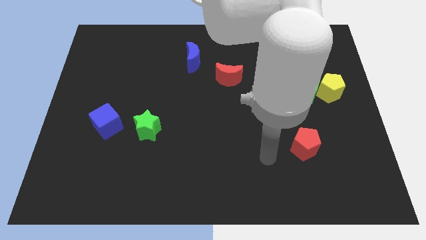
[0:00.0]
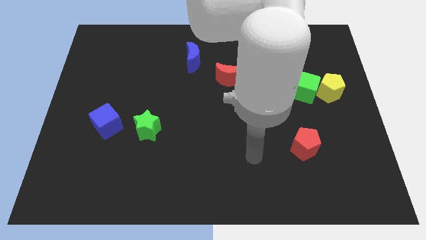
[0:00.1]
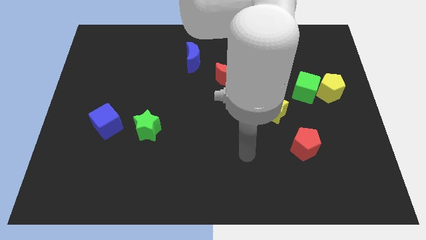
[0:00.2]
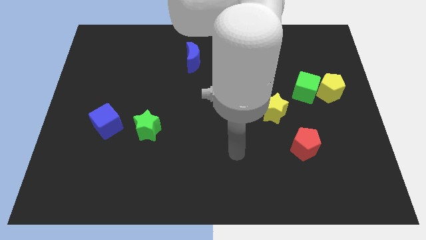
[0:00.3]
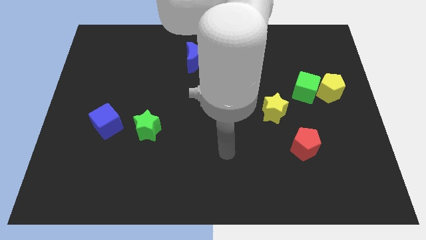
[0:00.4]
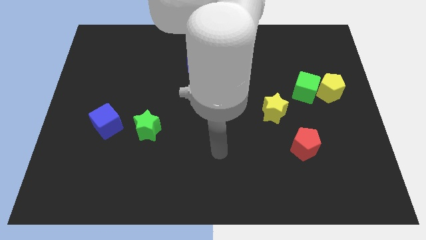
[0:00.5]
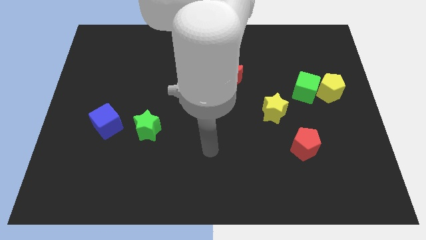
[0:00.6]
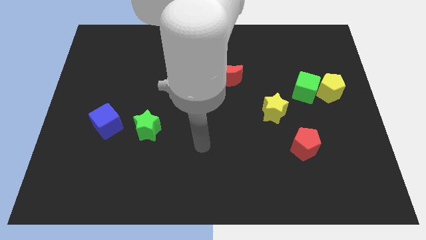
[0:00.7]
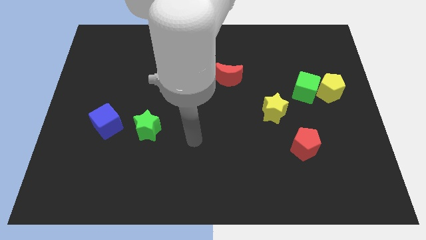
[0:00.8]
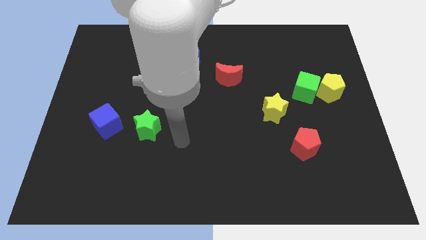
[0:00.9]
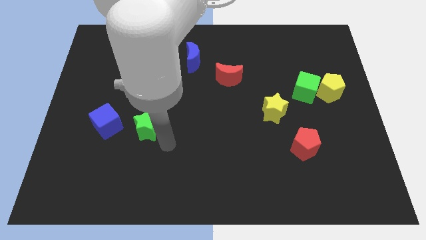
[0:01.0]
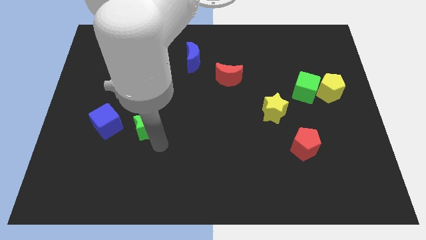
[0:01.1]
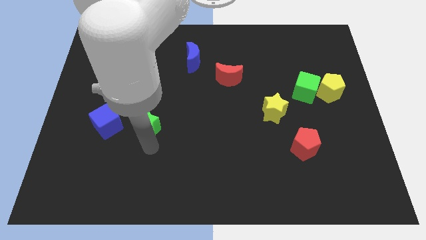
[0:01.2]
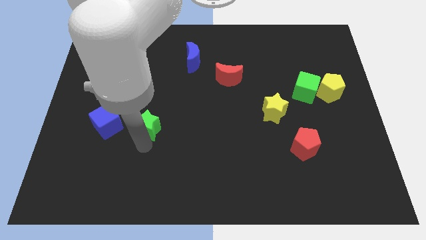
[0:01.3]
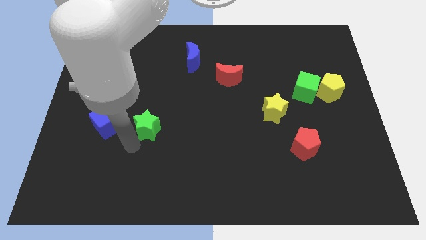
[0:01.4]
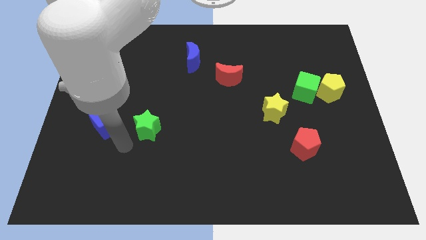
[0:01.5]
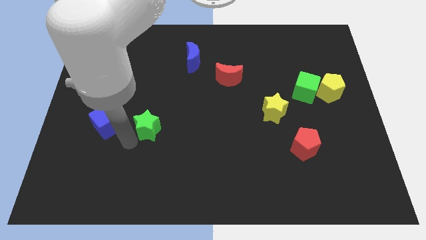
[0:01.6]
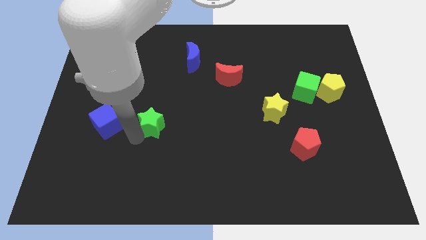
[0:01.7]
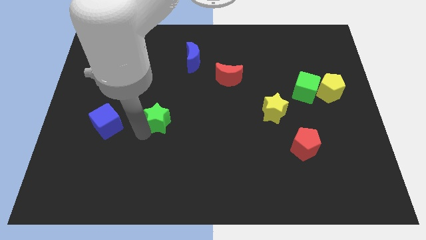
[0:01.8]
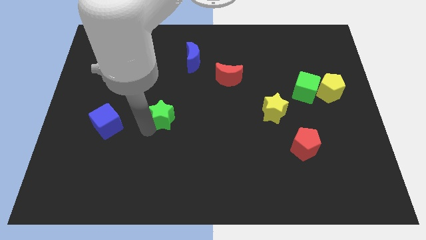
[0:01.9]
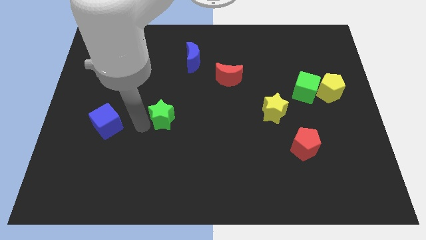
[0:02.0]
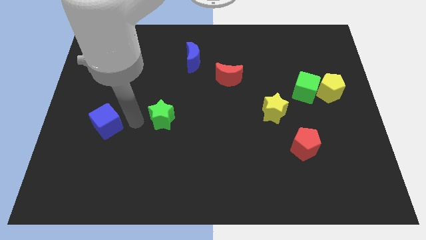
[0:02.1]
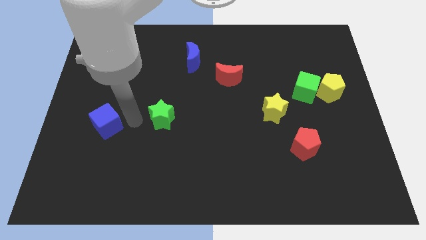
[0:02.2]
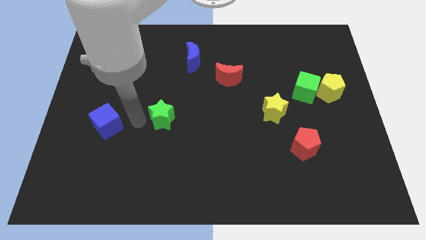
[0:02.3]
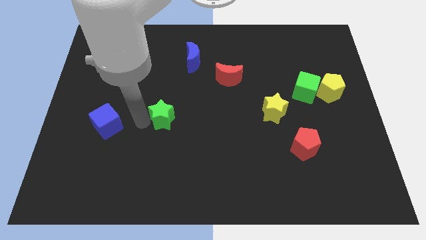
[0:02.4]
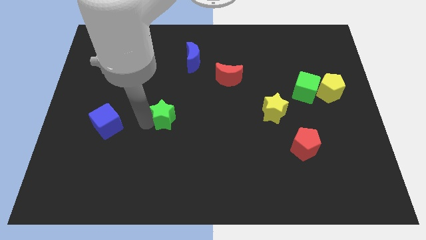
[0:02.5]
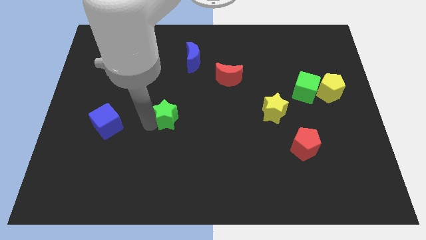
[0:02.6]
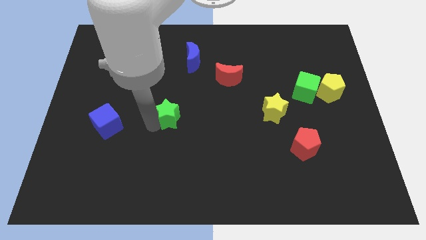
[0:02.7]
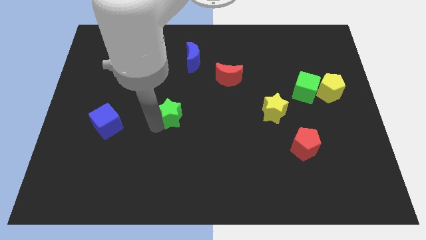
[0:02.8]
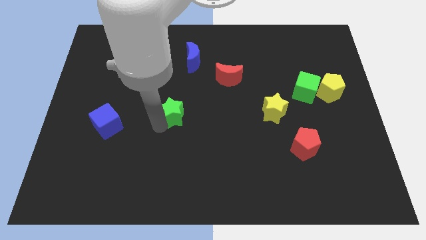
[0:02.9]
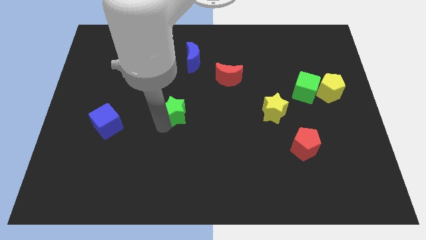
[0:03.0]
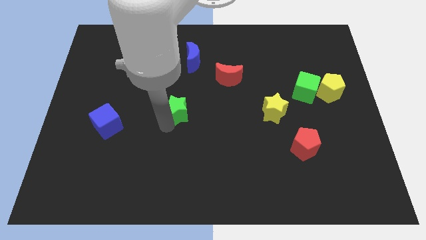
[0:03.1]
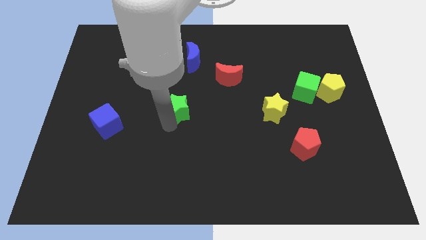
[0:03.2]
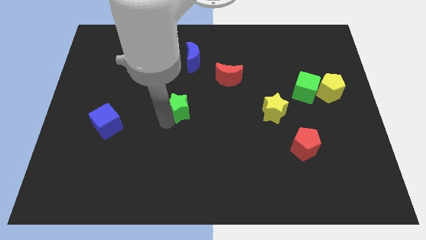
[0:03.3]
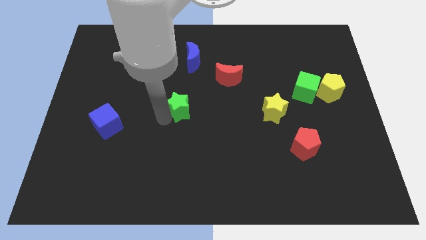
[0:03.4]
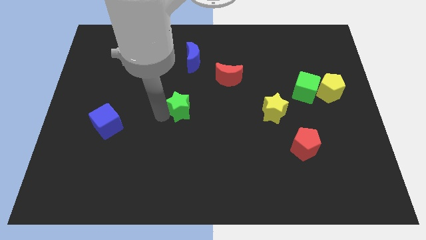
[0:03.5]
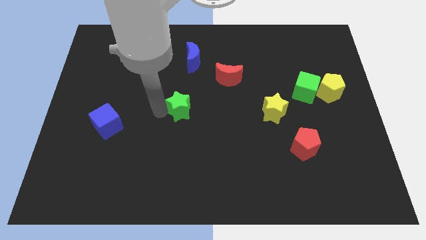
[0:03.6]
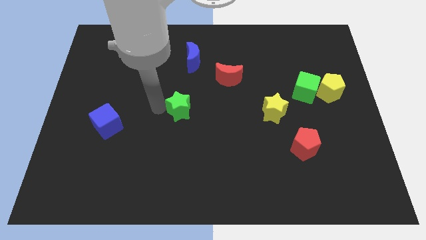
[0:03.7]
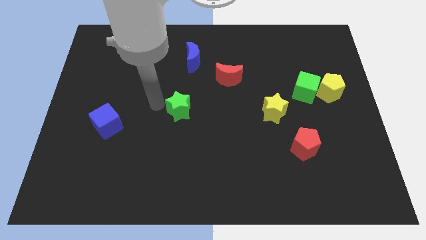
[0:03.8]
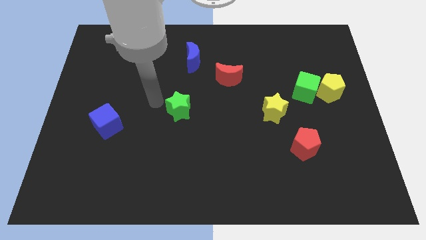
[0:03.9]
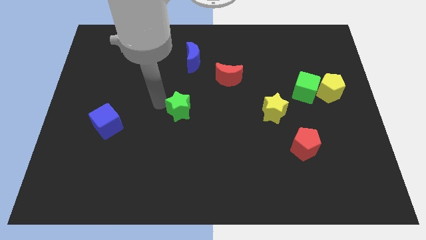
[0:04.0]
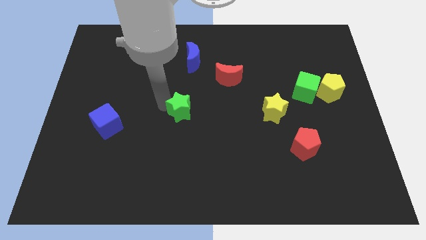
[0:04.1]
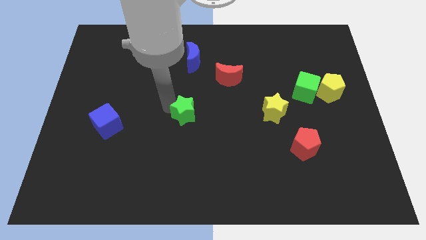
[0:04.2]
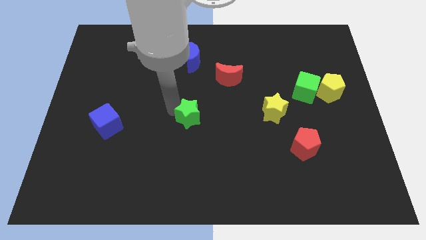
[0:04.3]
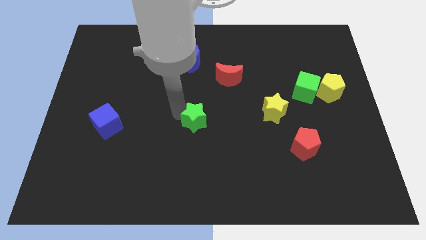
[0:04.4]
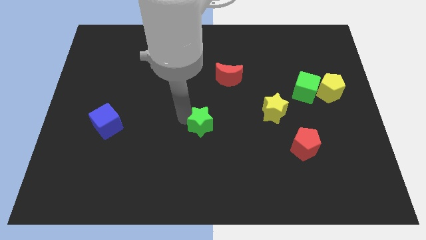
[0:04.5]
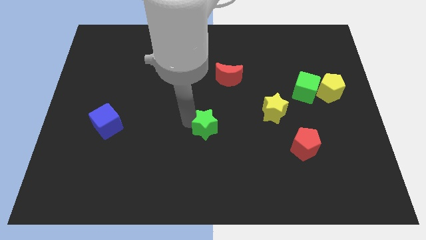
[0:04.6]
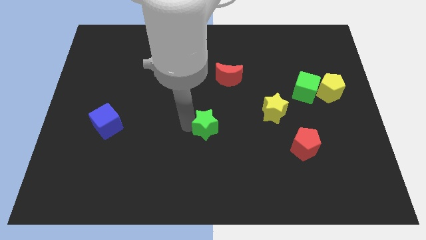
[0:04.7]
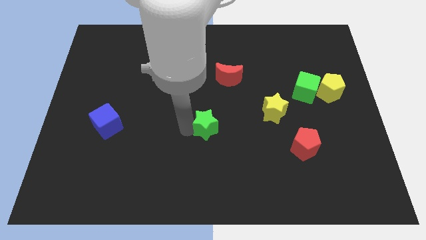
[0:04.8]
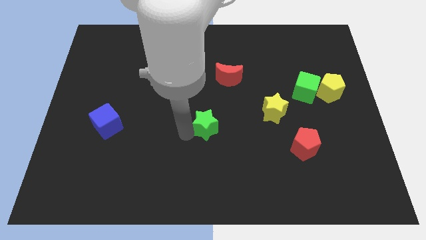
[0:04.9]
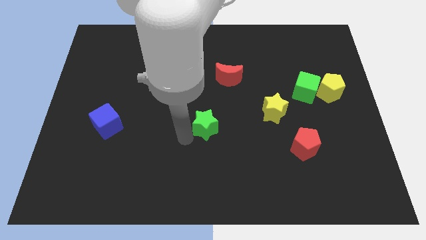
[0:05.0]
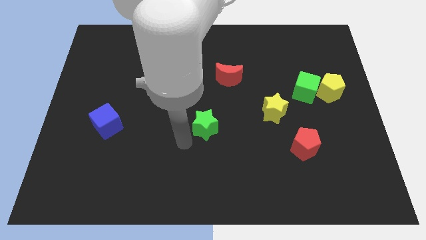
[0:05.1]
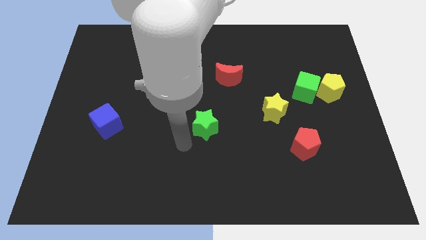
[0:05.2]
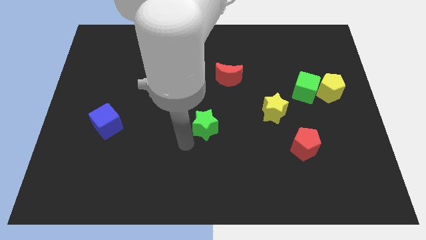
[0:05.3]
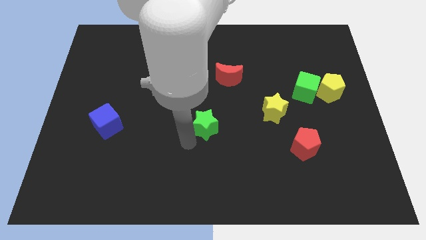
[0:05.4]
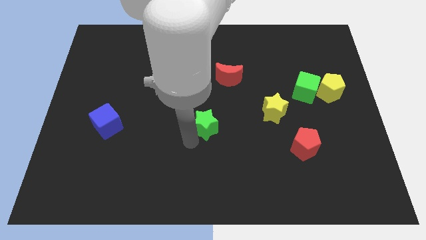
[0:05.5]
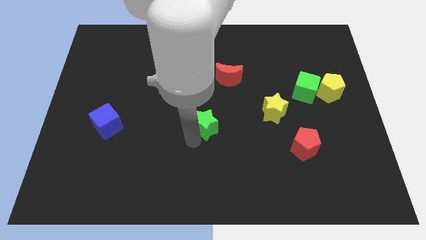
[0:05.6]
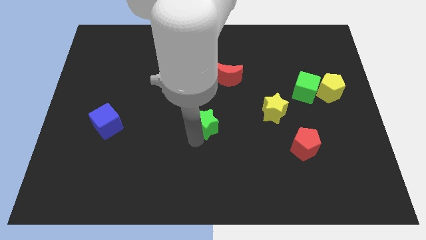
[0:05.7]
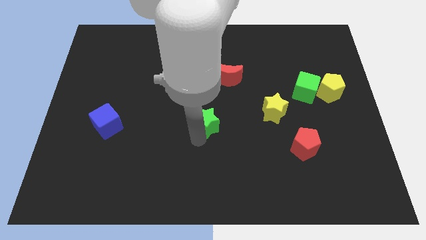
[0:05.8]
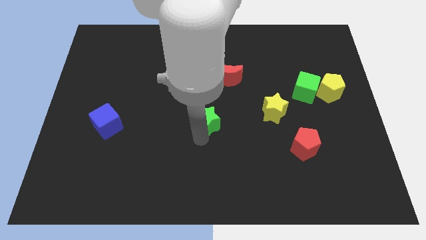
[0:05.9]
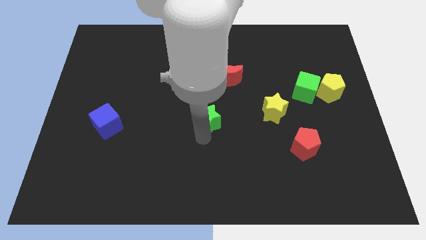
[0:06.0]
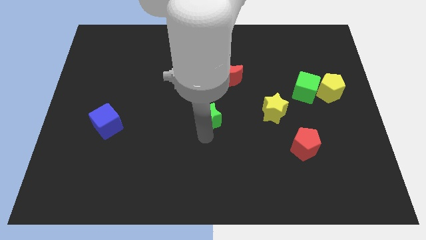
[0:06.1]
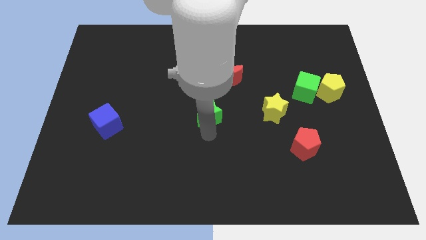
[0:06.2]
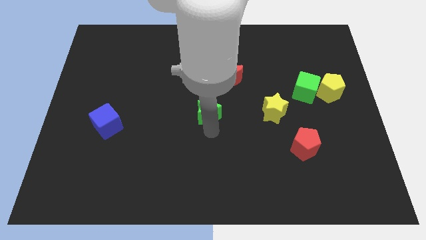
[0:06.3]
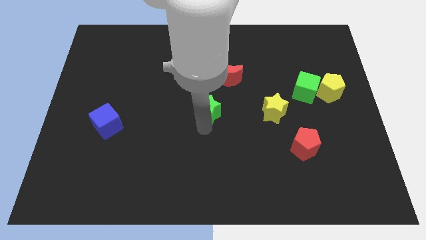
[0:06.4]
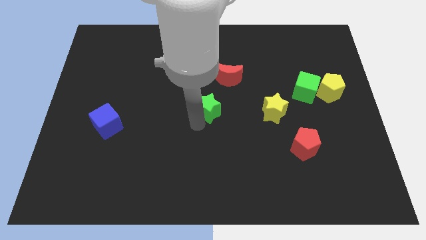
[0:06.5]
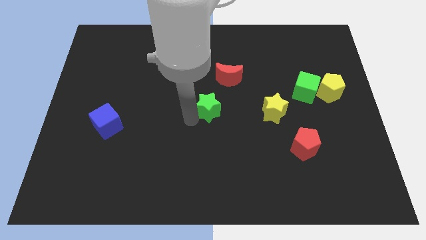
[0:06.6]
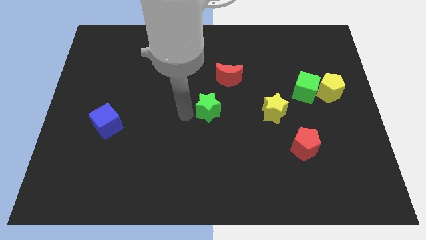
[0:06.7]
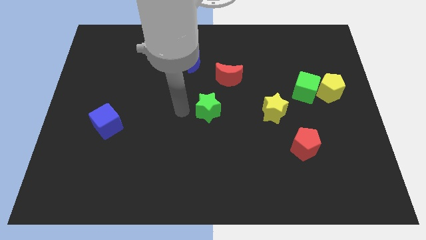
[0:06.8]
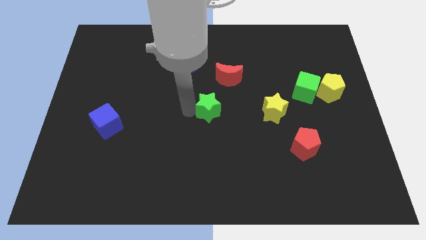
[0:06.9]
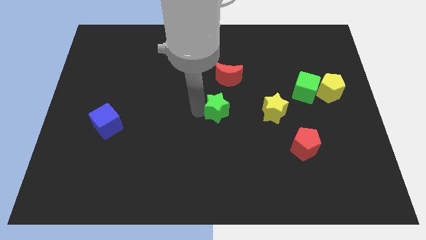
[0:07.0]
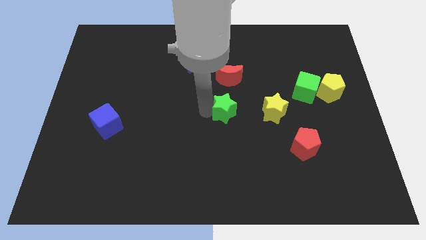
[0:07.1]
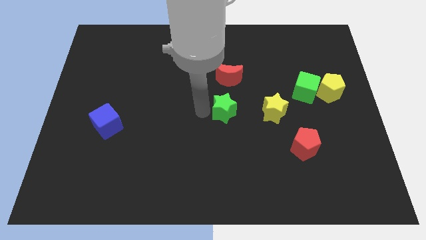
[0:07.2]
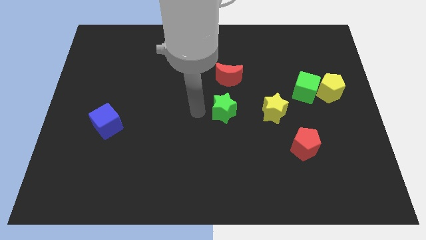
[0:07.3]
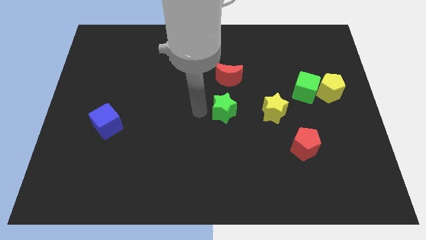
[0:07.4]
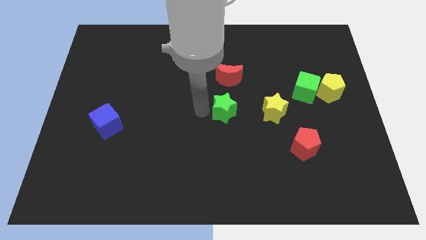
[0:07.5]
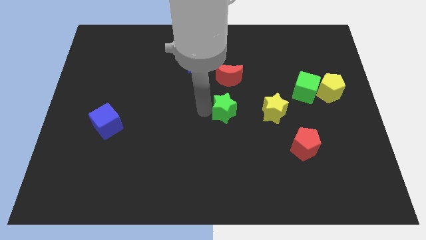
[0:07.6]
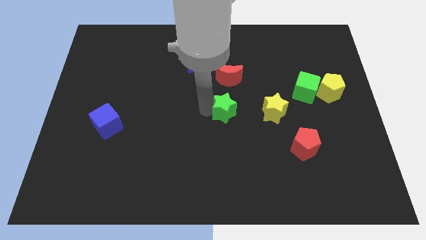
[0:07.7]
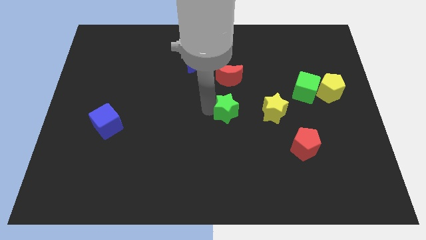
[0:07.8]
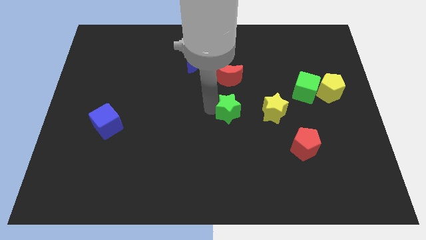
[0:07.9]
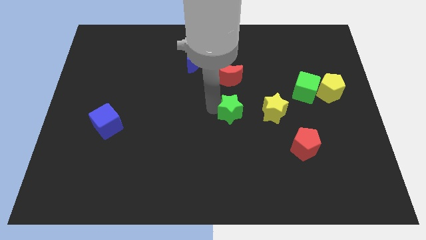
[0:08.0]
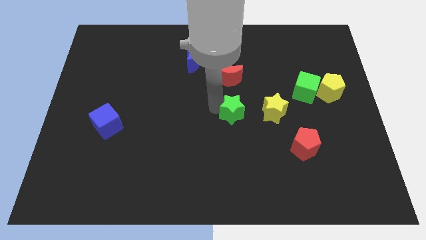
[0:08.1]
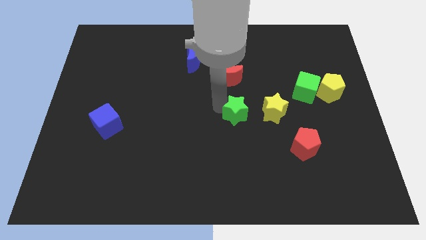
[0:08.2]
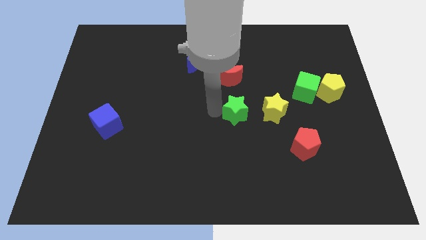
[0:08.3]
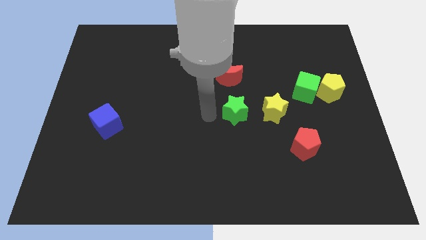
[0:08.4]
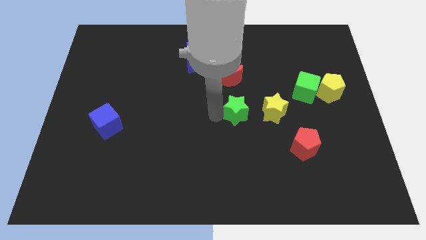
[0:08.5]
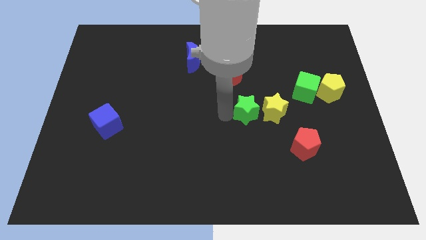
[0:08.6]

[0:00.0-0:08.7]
put the green star towards the yellow star
